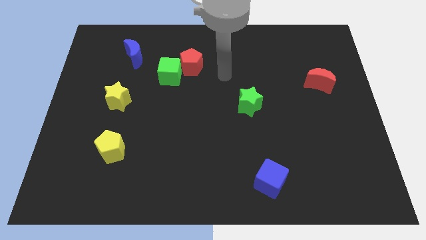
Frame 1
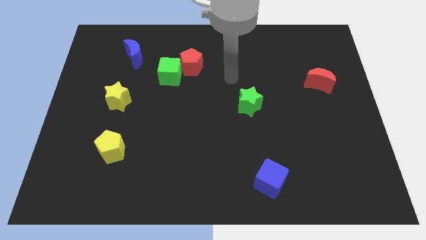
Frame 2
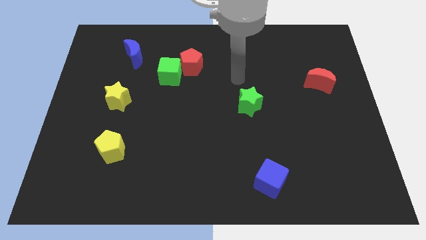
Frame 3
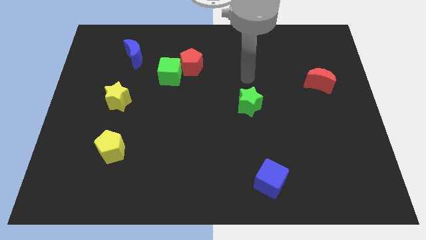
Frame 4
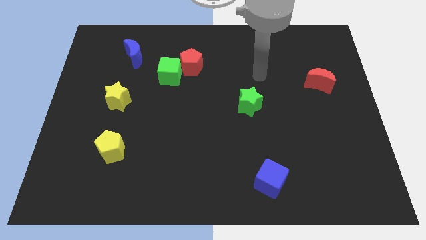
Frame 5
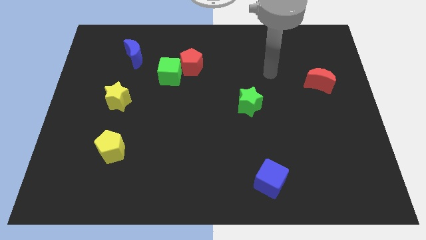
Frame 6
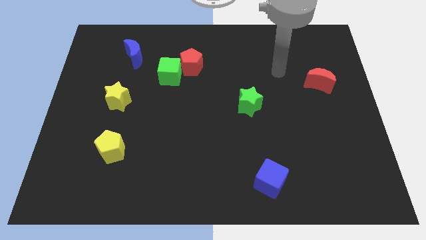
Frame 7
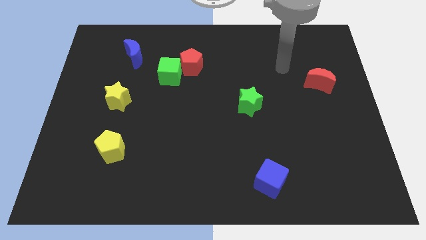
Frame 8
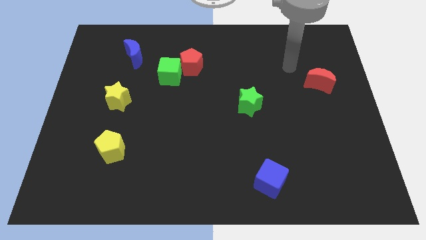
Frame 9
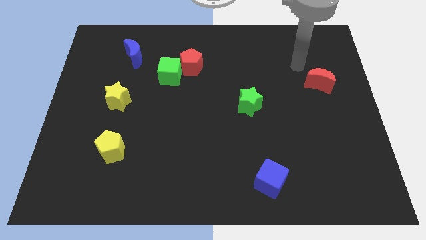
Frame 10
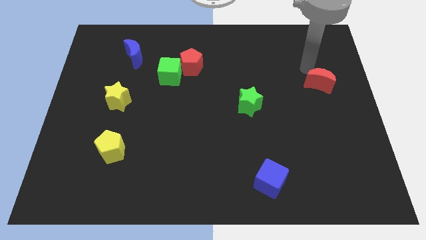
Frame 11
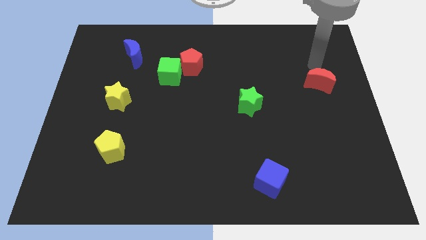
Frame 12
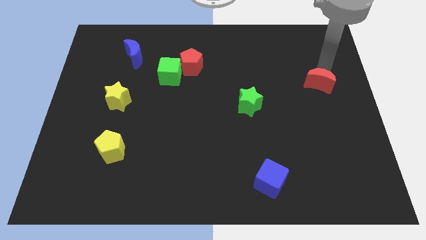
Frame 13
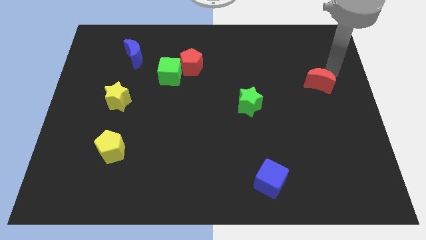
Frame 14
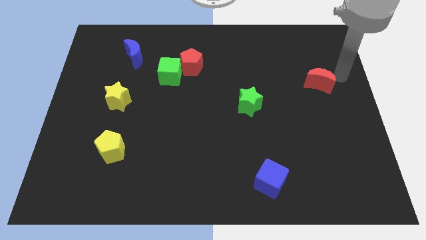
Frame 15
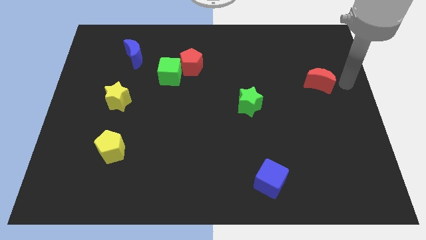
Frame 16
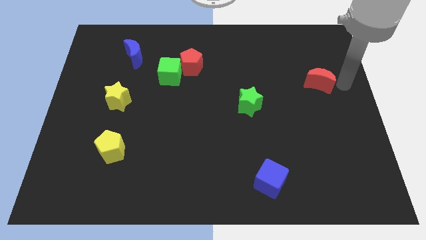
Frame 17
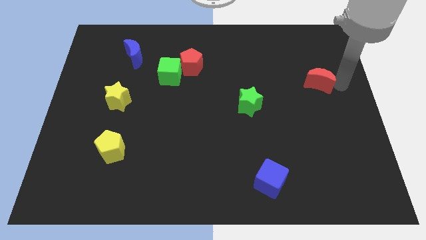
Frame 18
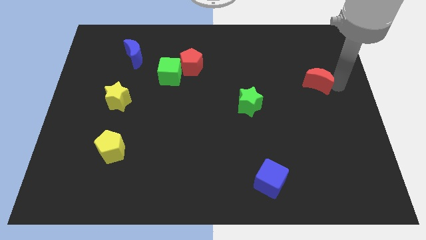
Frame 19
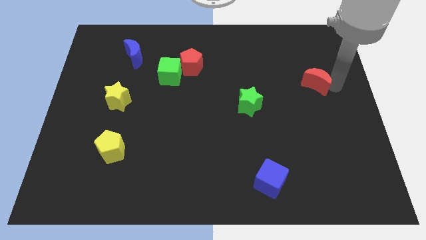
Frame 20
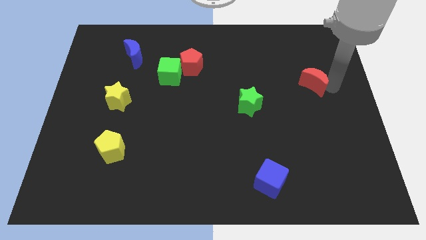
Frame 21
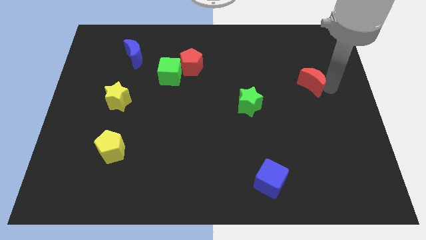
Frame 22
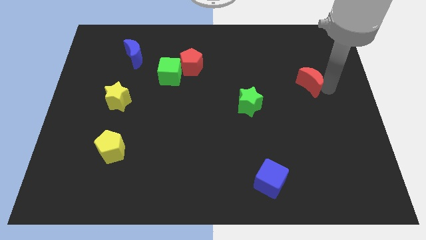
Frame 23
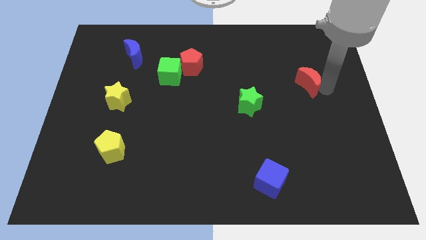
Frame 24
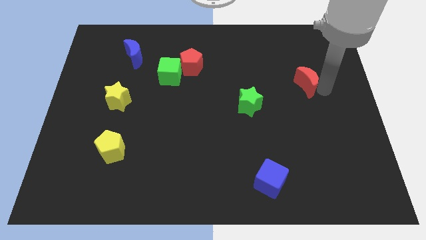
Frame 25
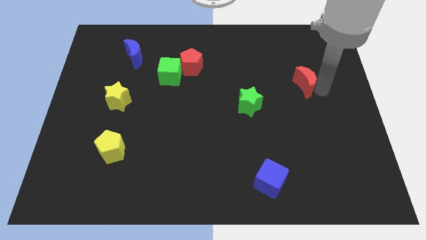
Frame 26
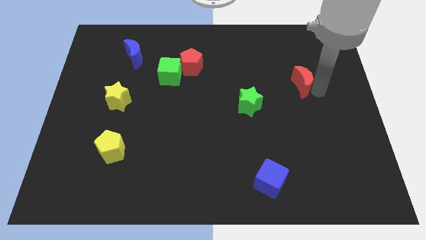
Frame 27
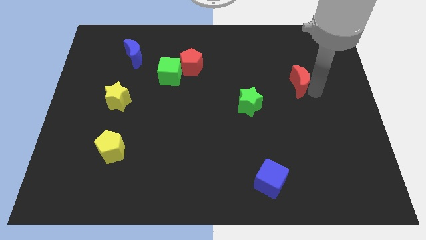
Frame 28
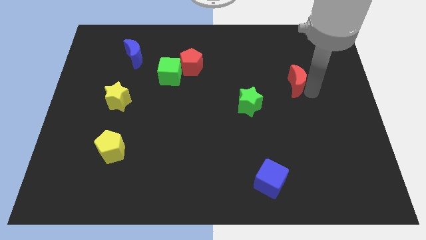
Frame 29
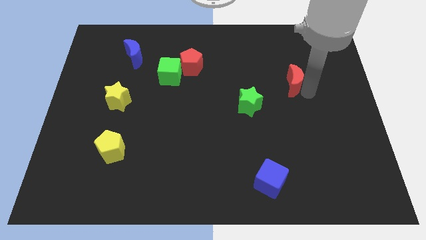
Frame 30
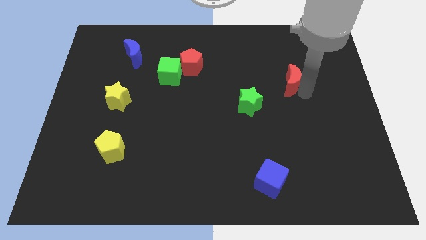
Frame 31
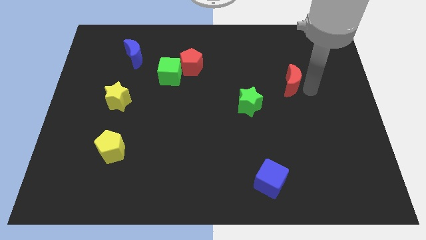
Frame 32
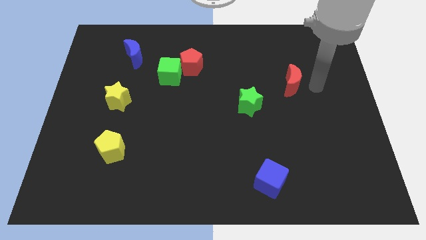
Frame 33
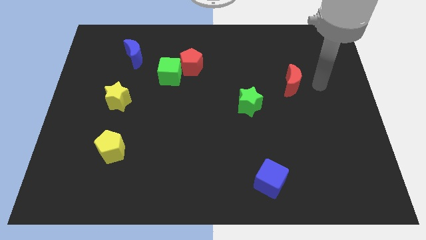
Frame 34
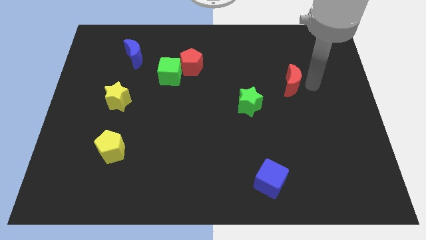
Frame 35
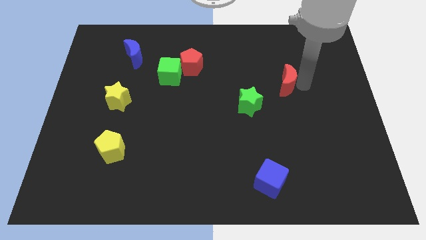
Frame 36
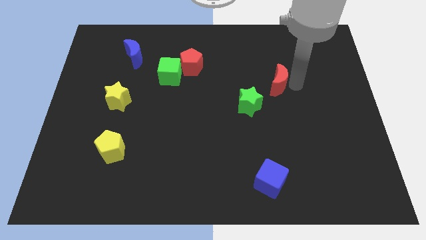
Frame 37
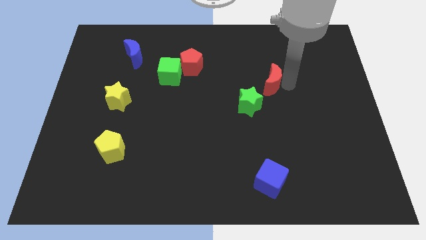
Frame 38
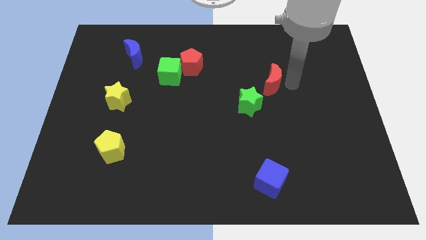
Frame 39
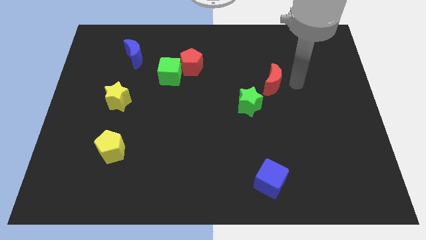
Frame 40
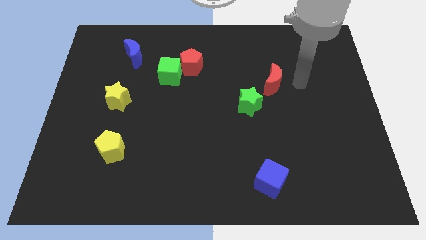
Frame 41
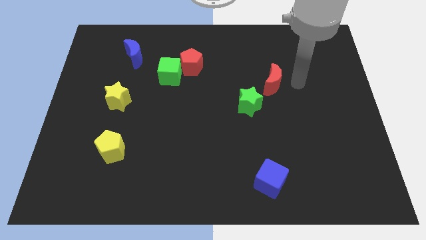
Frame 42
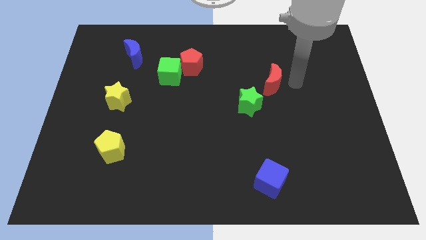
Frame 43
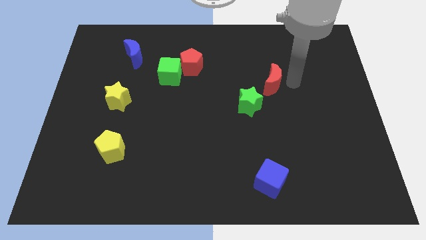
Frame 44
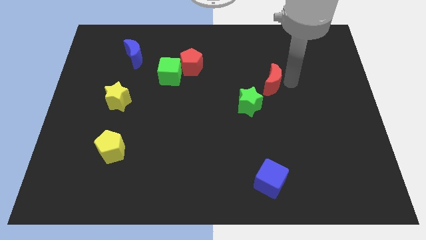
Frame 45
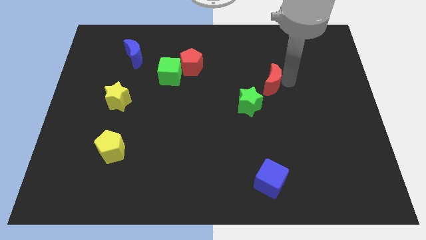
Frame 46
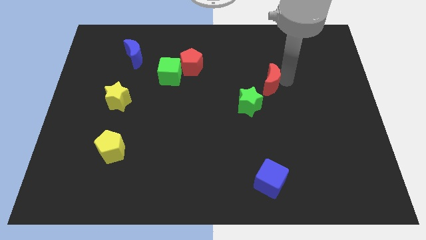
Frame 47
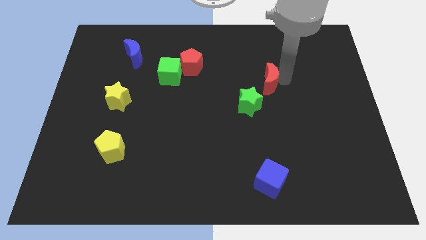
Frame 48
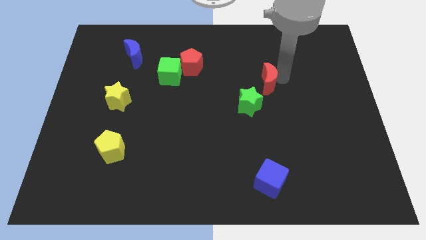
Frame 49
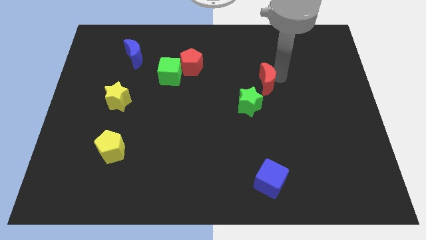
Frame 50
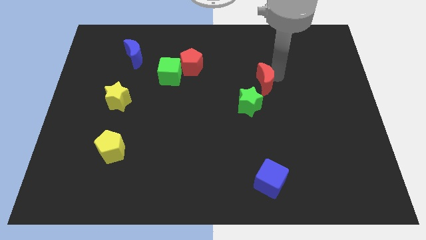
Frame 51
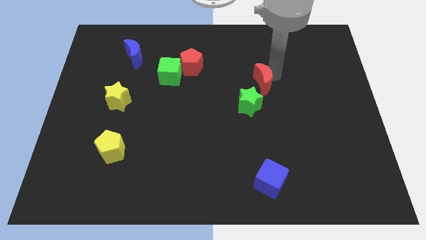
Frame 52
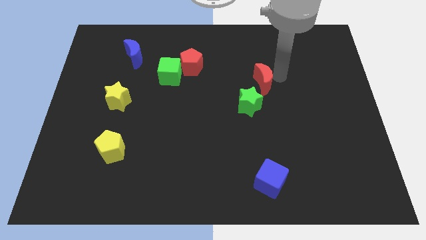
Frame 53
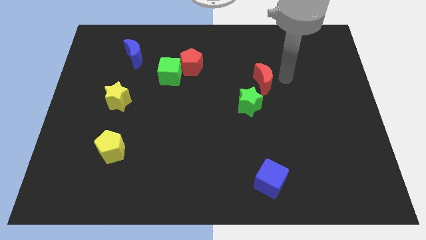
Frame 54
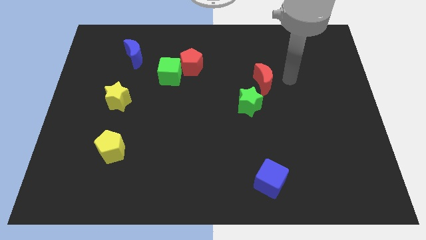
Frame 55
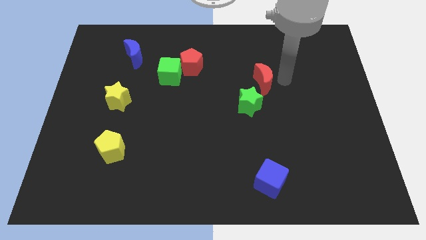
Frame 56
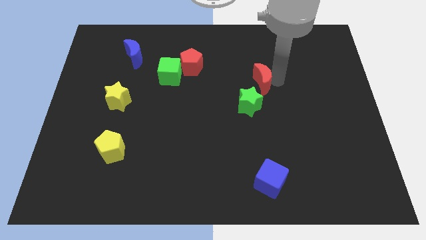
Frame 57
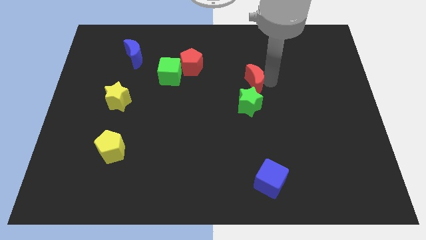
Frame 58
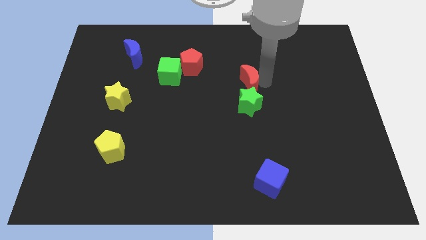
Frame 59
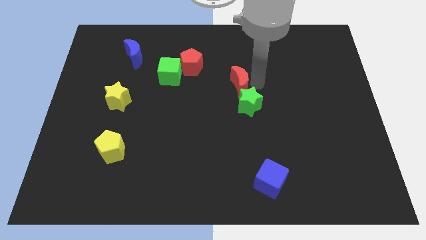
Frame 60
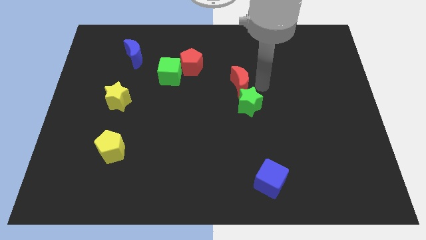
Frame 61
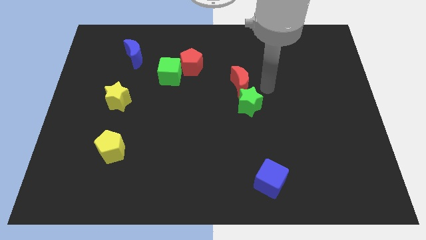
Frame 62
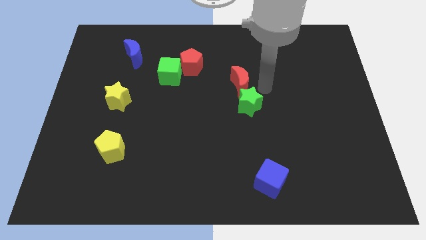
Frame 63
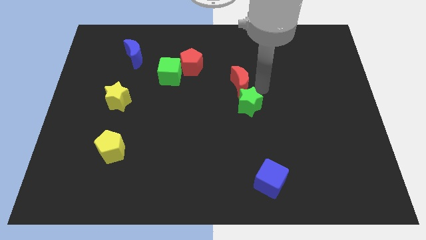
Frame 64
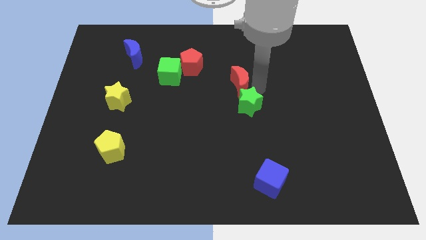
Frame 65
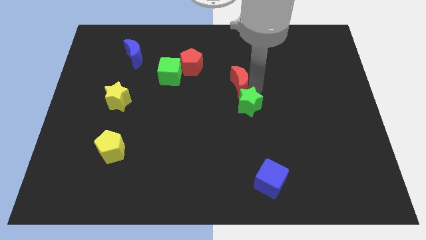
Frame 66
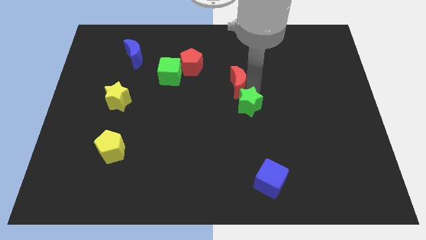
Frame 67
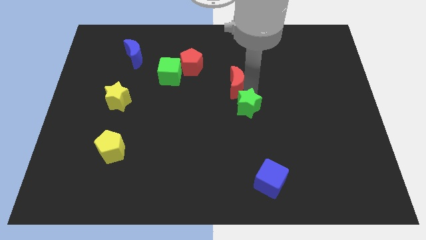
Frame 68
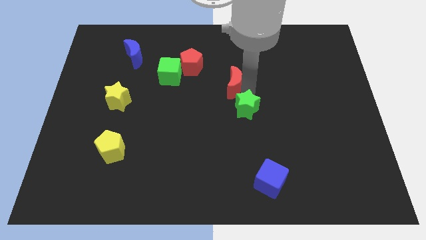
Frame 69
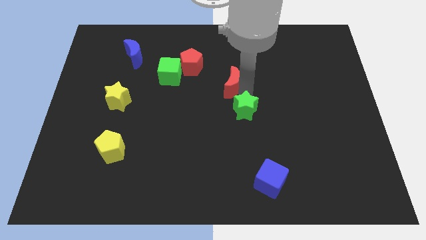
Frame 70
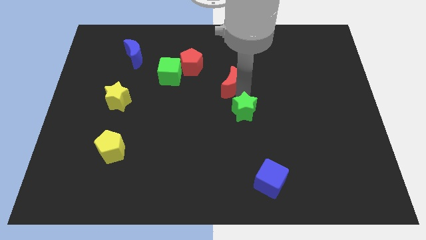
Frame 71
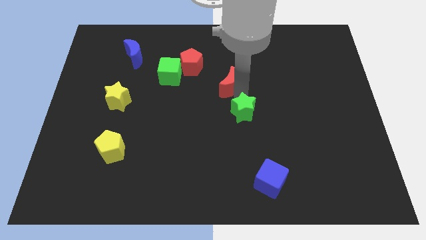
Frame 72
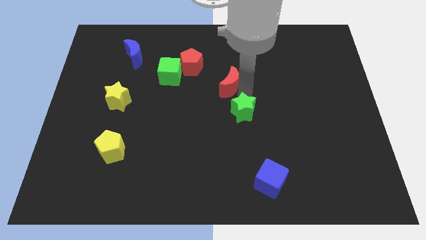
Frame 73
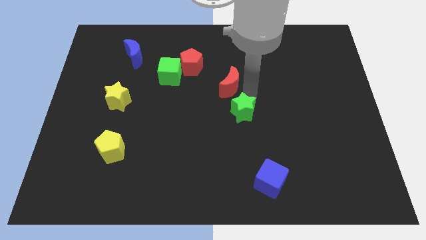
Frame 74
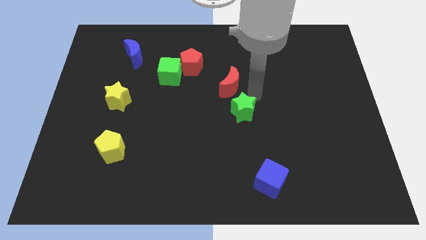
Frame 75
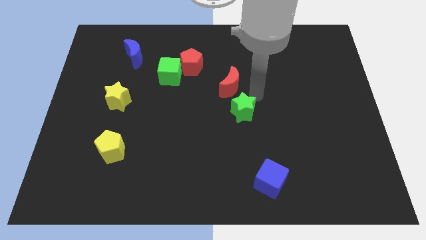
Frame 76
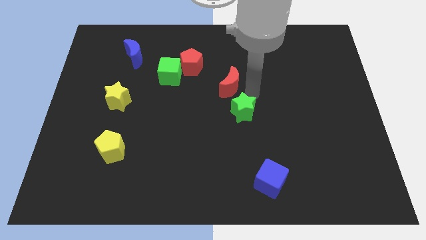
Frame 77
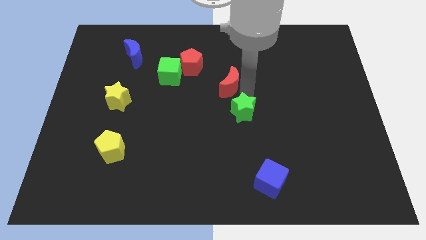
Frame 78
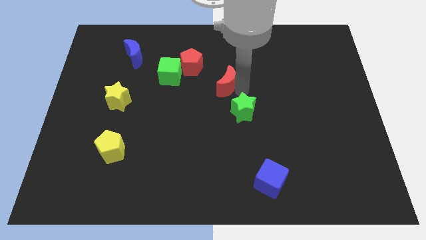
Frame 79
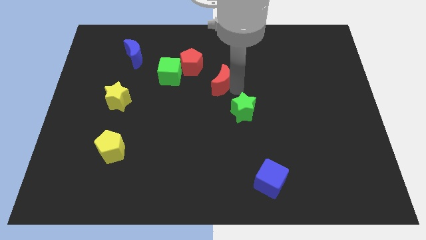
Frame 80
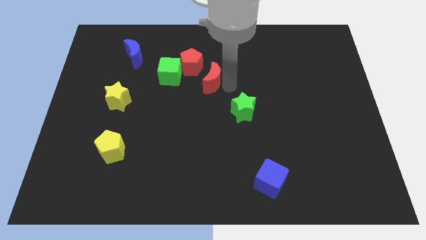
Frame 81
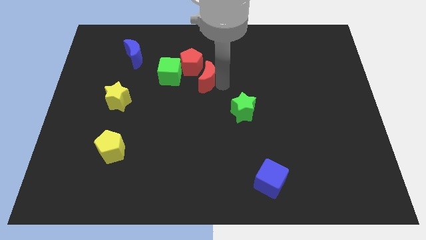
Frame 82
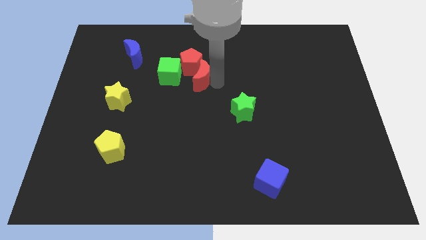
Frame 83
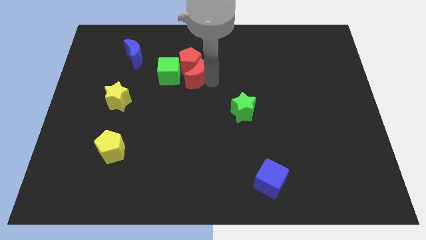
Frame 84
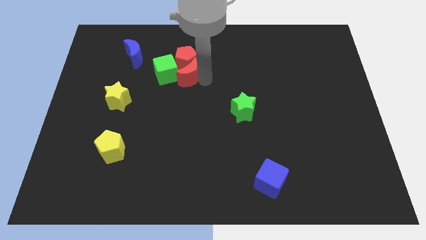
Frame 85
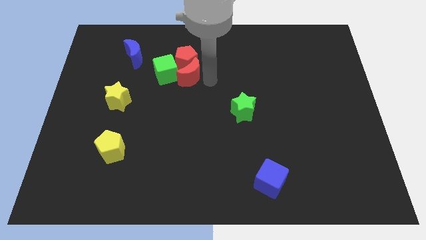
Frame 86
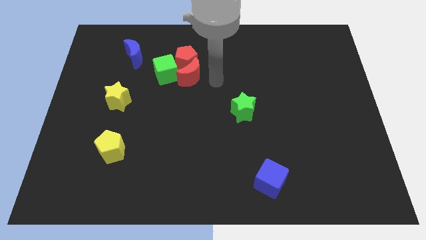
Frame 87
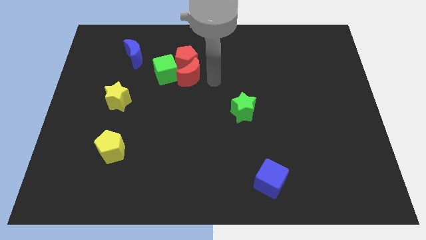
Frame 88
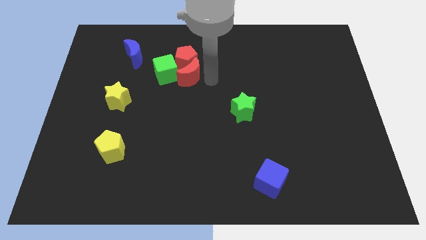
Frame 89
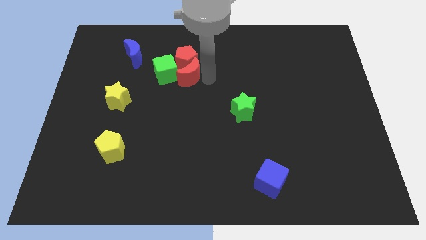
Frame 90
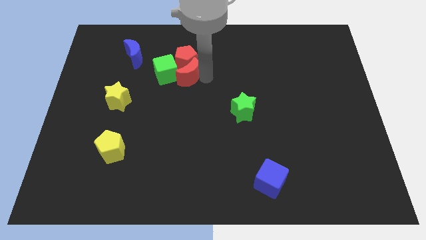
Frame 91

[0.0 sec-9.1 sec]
slide the red moon towards the green cube
